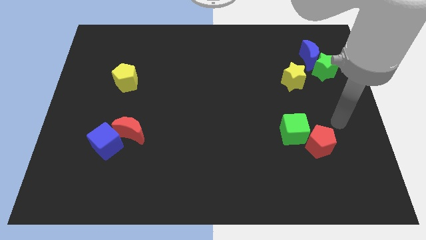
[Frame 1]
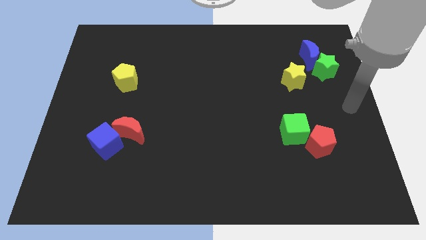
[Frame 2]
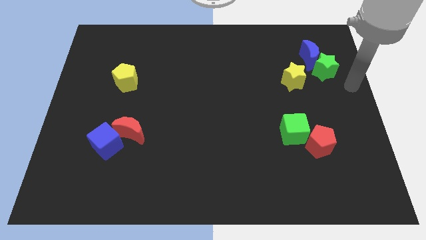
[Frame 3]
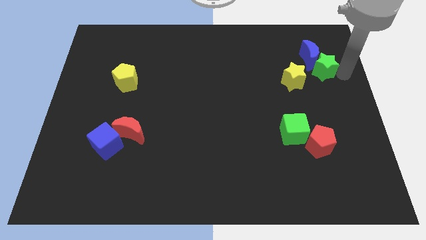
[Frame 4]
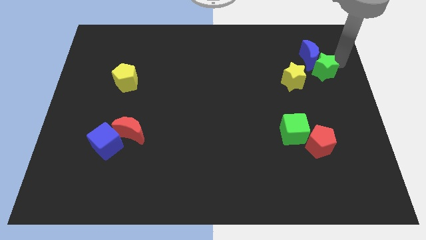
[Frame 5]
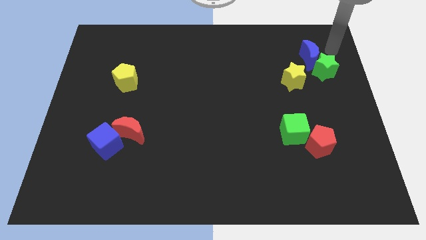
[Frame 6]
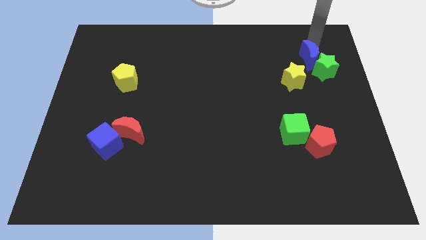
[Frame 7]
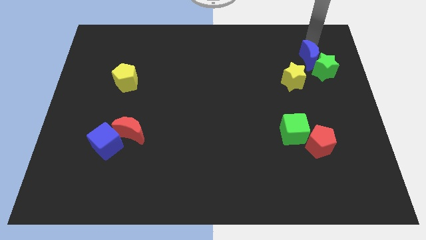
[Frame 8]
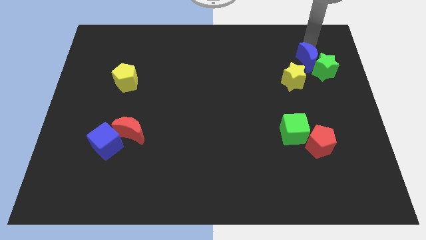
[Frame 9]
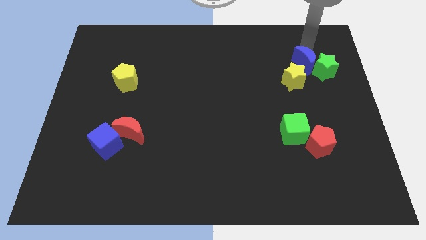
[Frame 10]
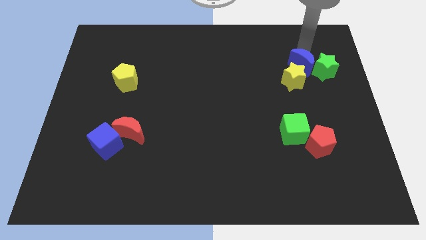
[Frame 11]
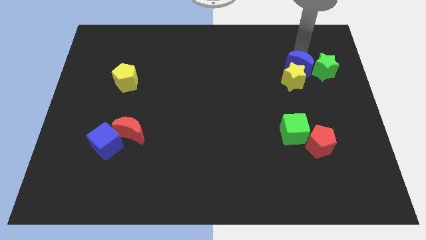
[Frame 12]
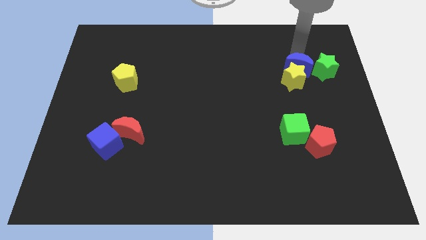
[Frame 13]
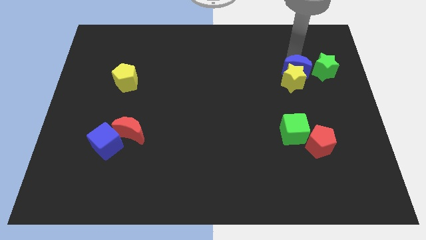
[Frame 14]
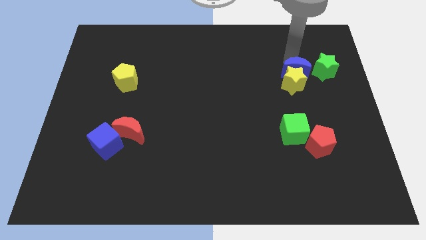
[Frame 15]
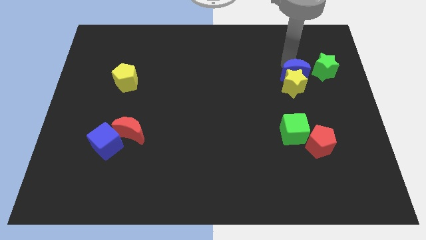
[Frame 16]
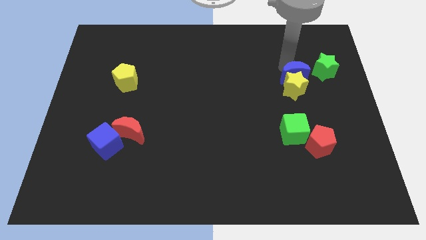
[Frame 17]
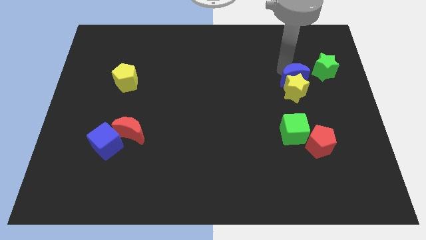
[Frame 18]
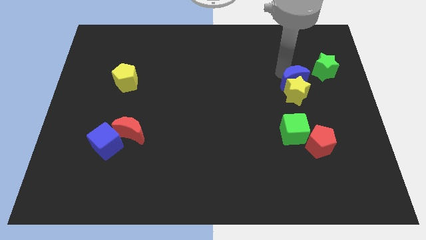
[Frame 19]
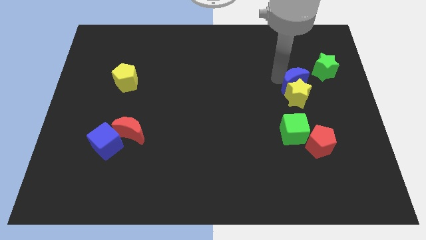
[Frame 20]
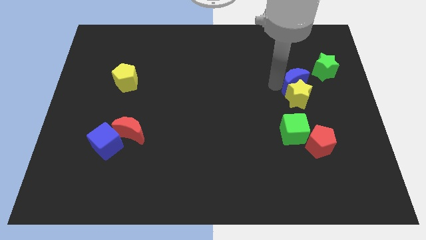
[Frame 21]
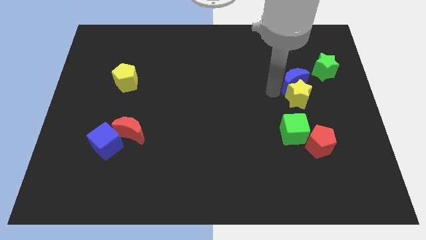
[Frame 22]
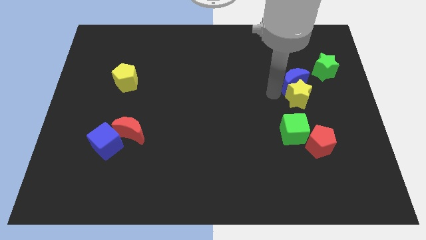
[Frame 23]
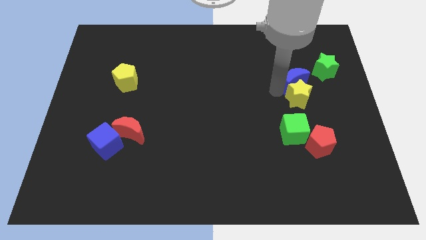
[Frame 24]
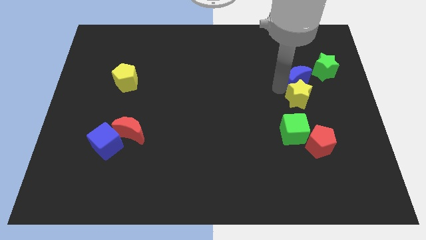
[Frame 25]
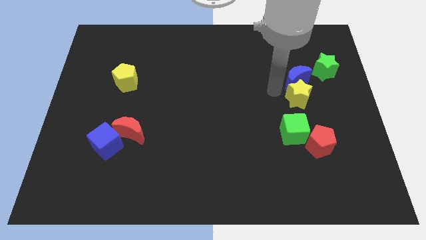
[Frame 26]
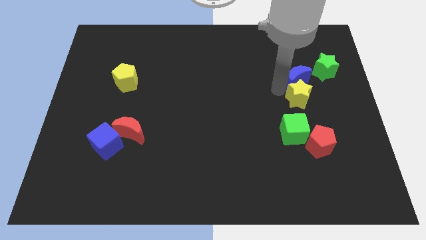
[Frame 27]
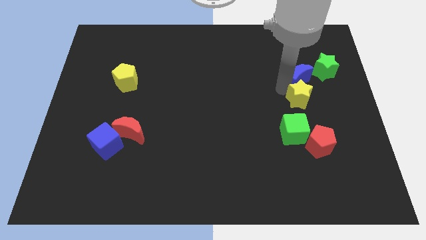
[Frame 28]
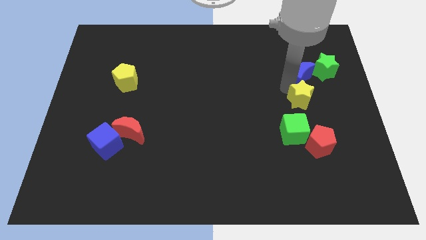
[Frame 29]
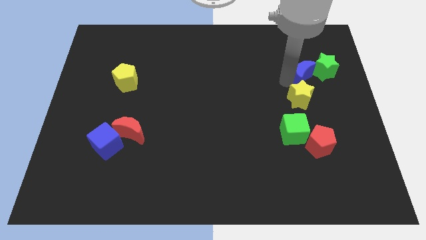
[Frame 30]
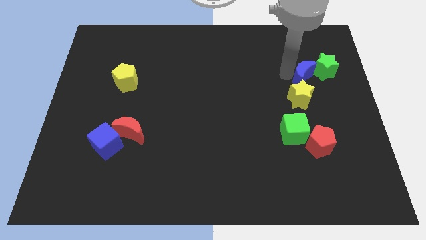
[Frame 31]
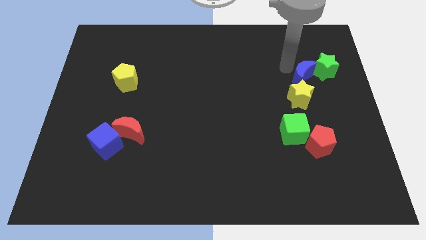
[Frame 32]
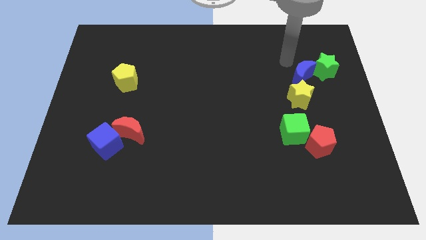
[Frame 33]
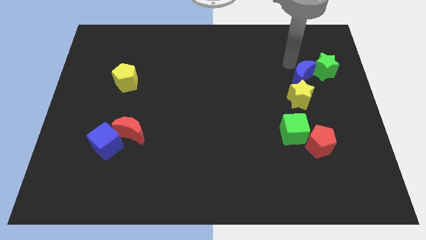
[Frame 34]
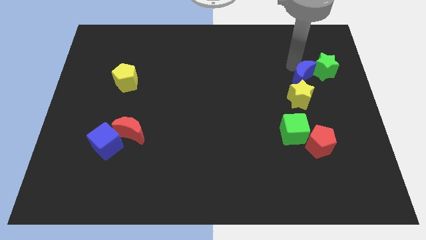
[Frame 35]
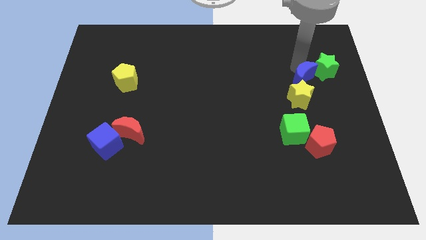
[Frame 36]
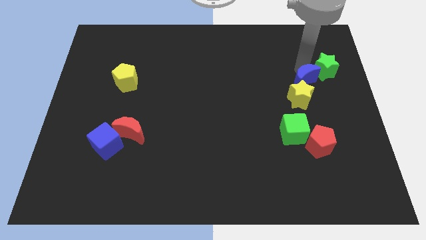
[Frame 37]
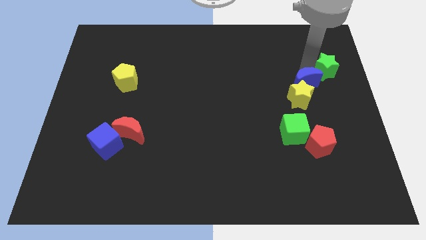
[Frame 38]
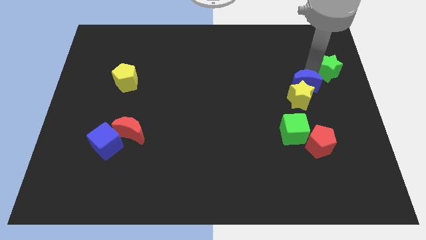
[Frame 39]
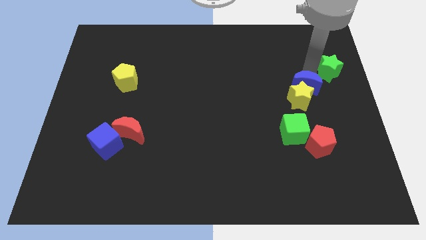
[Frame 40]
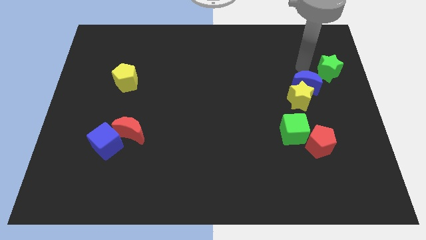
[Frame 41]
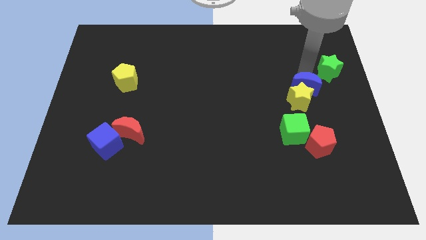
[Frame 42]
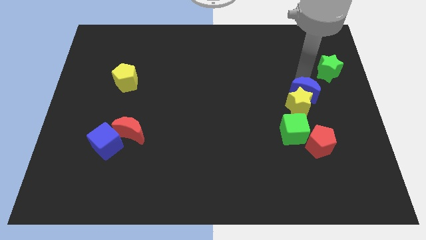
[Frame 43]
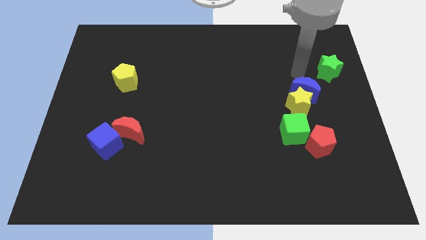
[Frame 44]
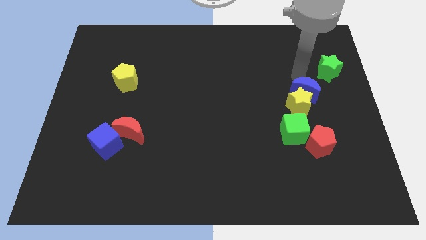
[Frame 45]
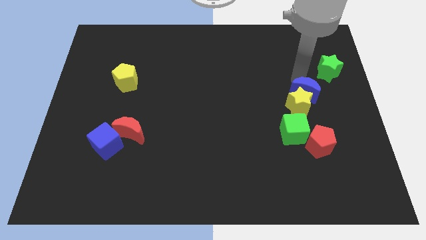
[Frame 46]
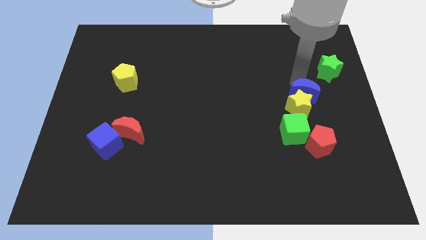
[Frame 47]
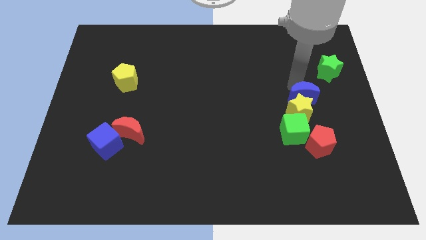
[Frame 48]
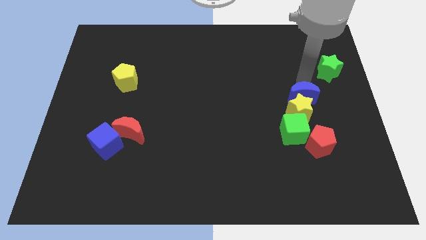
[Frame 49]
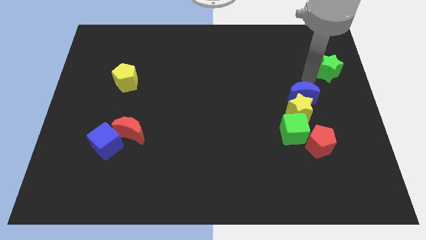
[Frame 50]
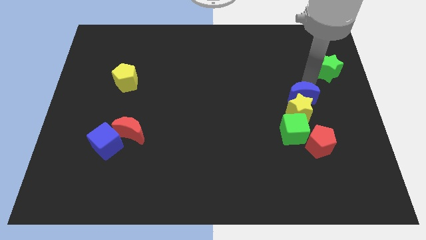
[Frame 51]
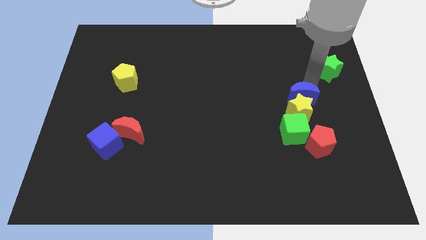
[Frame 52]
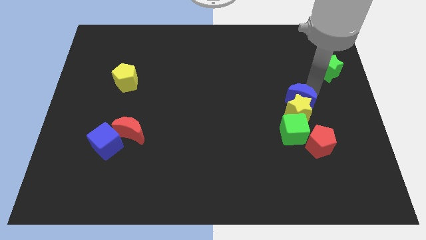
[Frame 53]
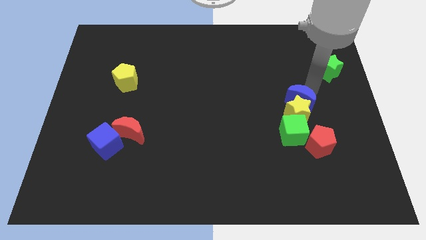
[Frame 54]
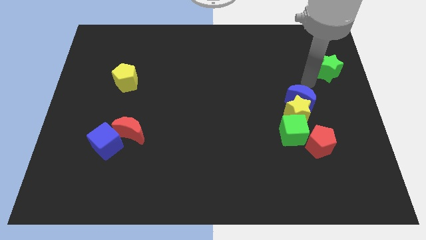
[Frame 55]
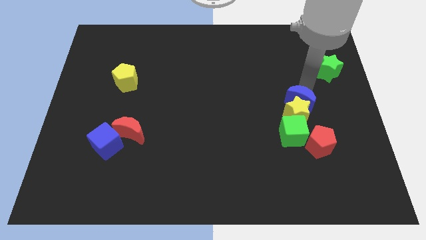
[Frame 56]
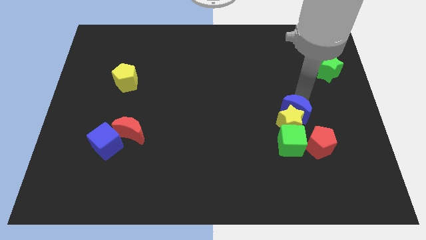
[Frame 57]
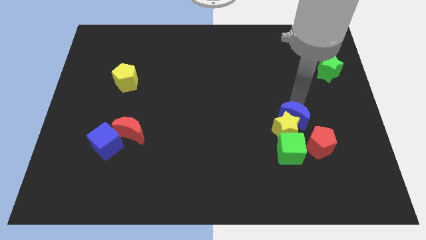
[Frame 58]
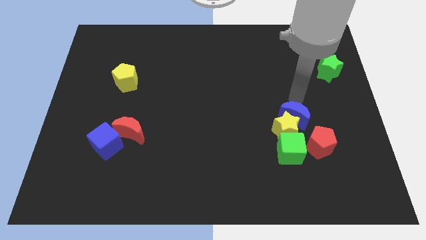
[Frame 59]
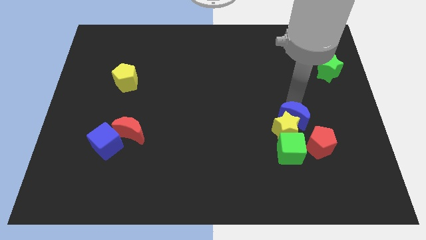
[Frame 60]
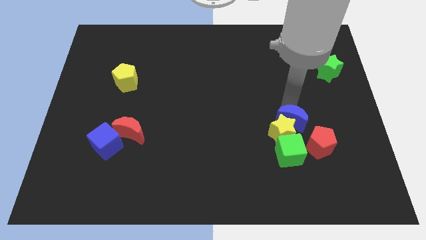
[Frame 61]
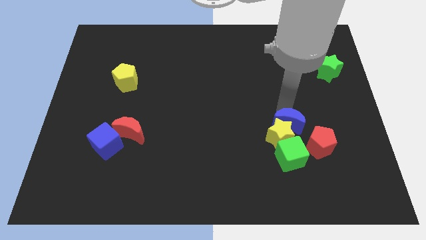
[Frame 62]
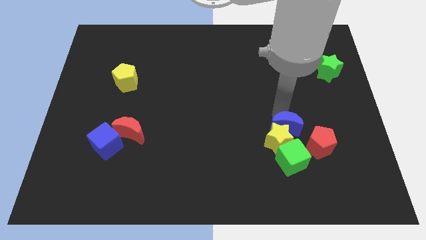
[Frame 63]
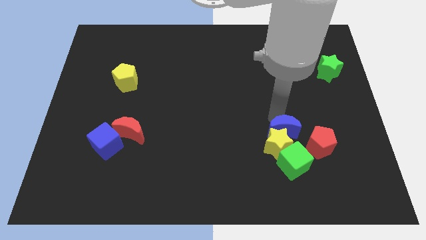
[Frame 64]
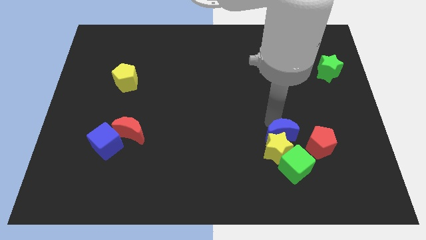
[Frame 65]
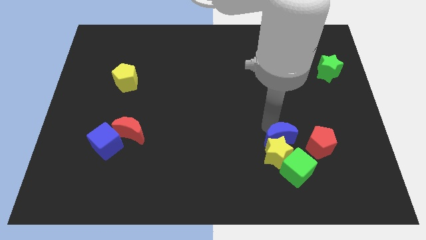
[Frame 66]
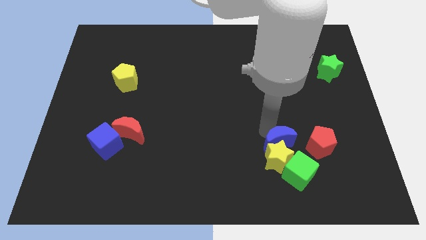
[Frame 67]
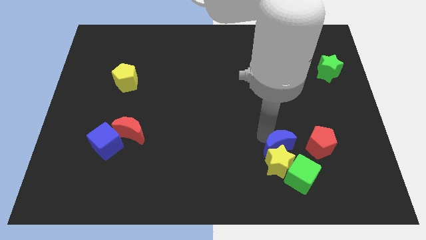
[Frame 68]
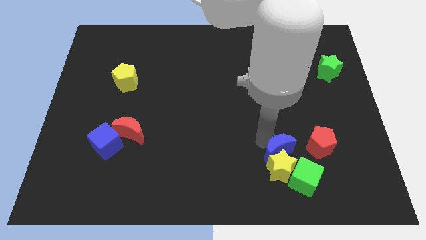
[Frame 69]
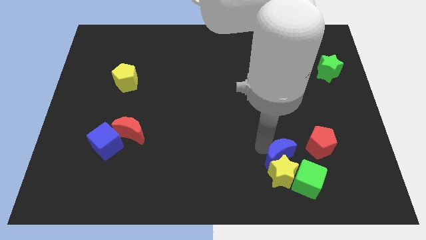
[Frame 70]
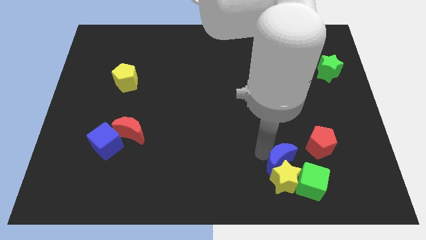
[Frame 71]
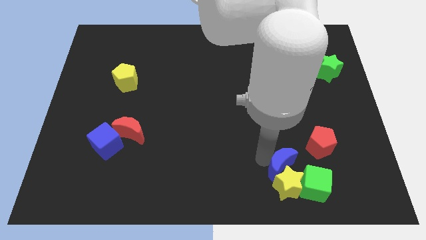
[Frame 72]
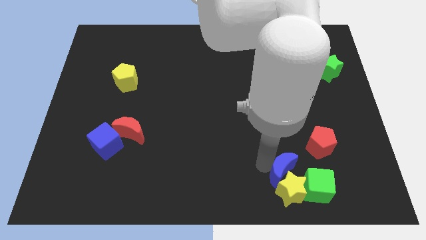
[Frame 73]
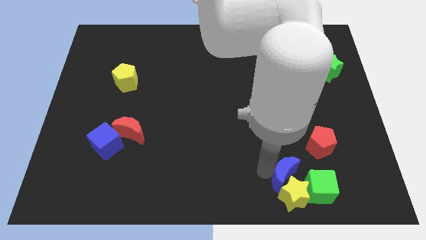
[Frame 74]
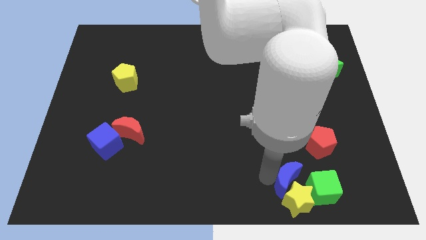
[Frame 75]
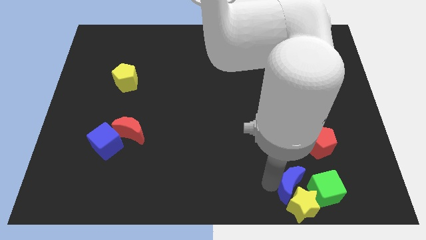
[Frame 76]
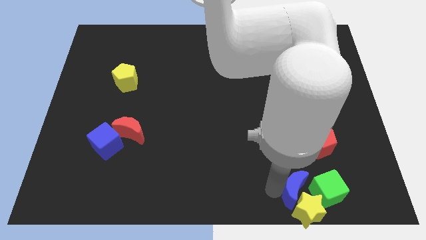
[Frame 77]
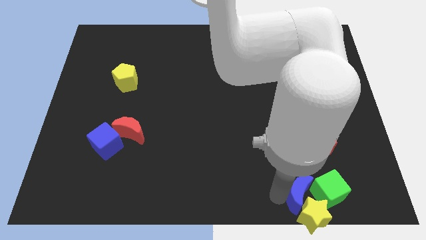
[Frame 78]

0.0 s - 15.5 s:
move the blue moon close to the green cube
